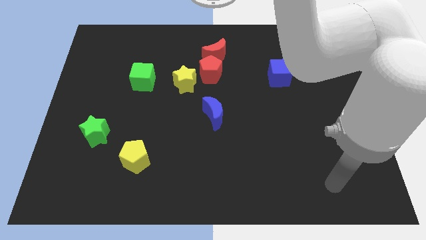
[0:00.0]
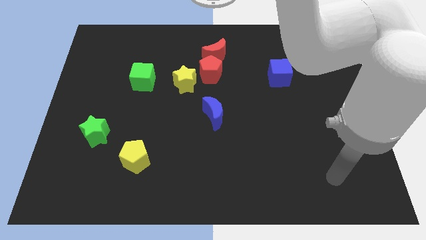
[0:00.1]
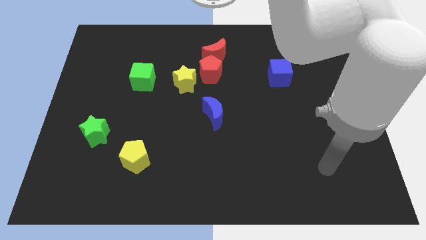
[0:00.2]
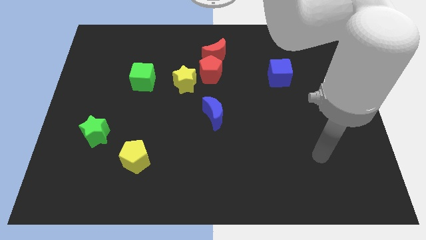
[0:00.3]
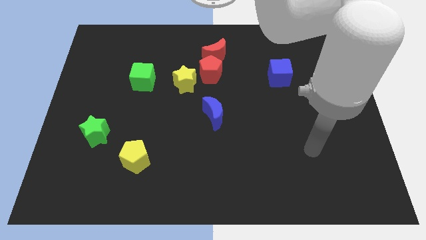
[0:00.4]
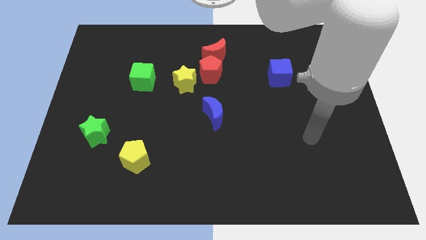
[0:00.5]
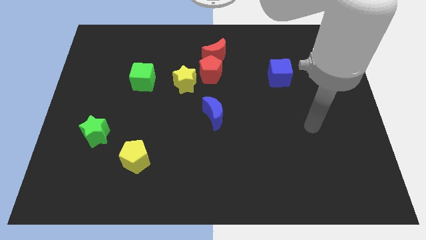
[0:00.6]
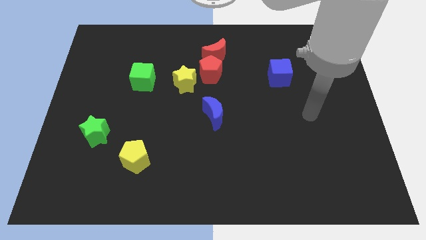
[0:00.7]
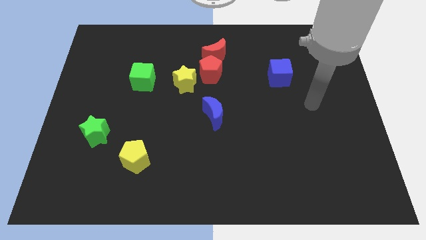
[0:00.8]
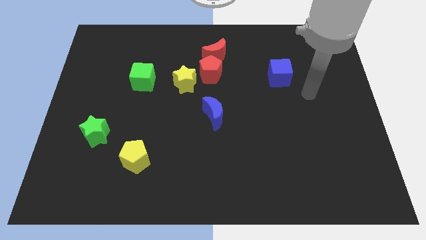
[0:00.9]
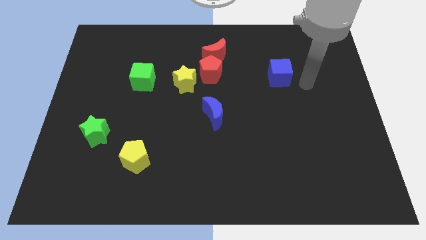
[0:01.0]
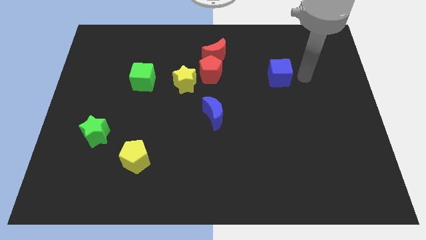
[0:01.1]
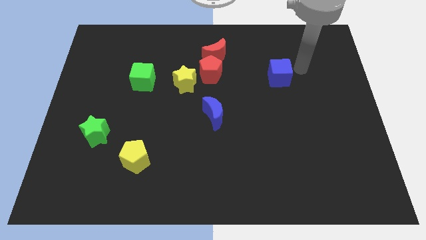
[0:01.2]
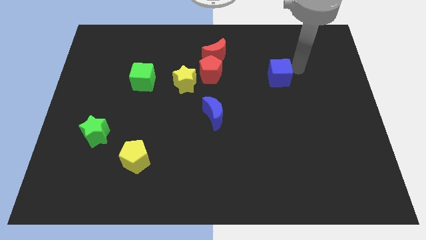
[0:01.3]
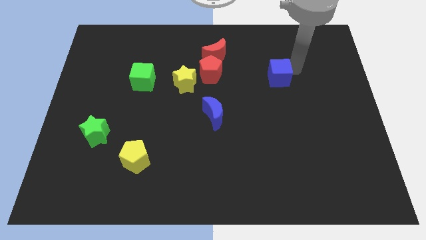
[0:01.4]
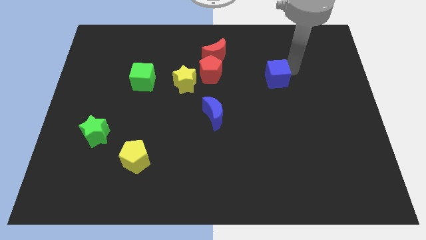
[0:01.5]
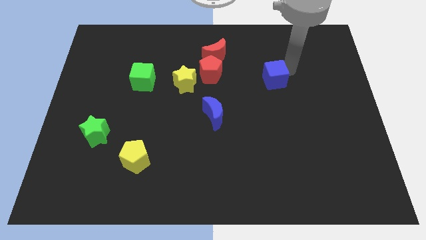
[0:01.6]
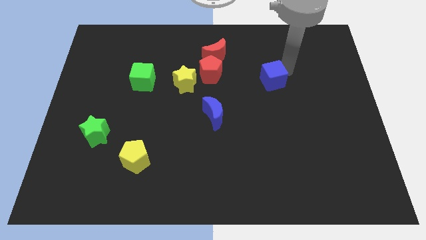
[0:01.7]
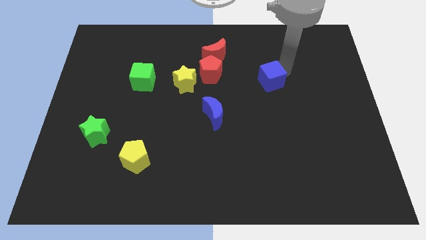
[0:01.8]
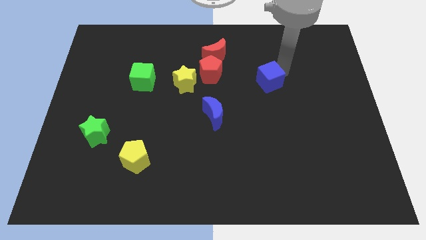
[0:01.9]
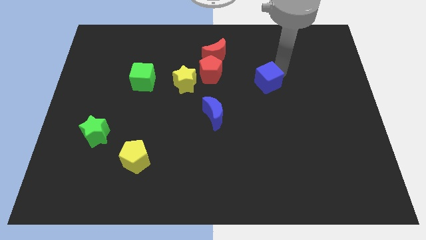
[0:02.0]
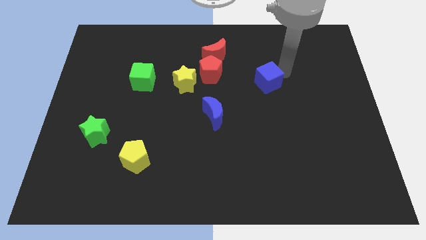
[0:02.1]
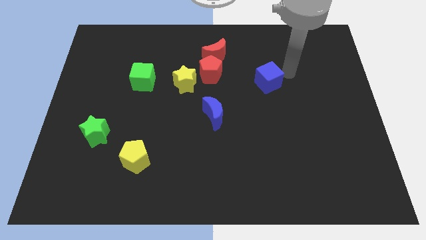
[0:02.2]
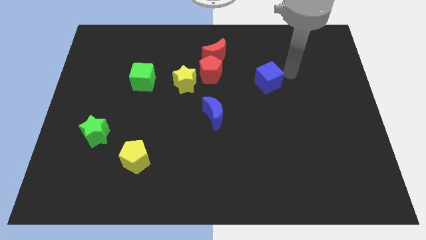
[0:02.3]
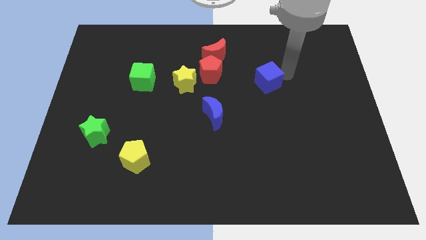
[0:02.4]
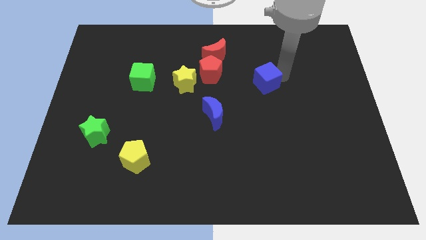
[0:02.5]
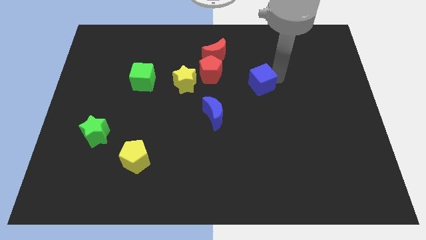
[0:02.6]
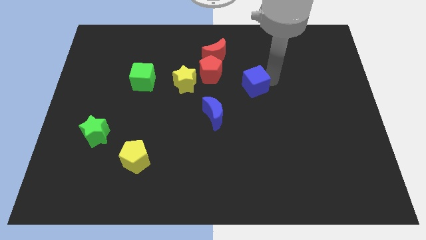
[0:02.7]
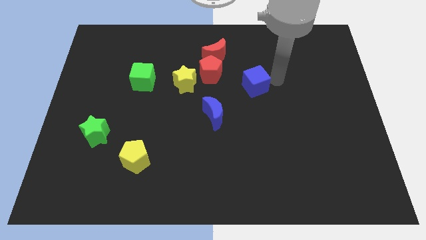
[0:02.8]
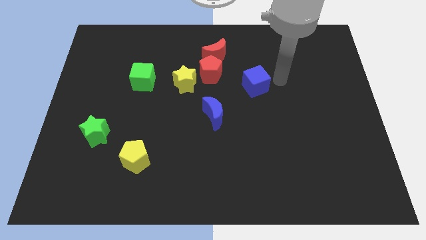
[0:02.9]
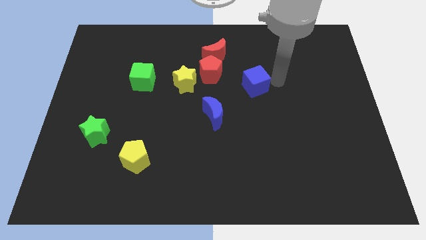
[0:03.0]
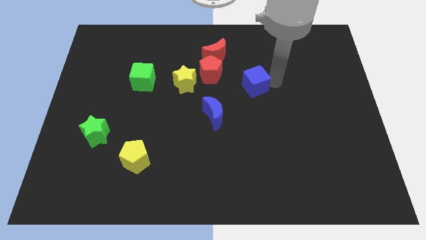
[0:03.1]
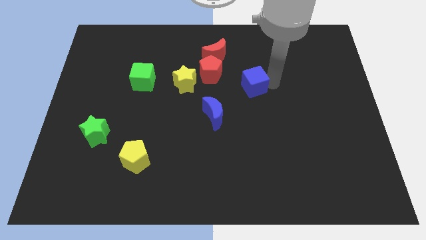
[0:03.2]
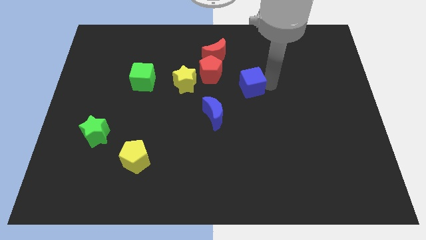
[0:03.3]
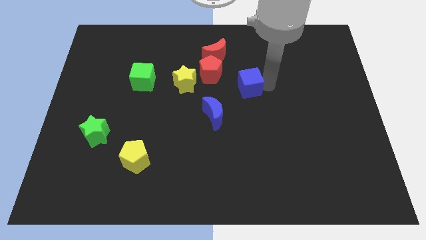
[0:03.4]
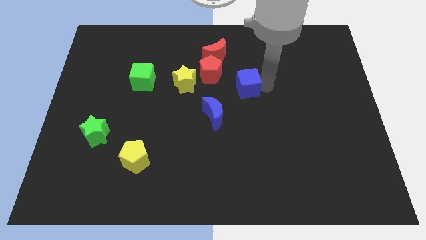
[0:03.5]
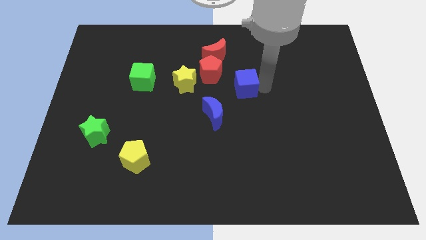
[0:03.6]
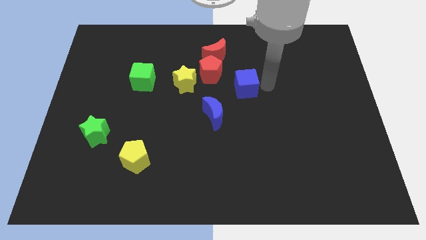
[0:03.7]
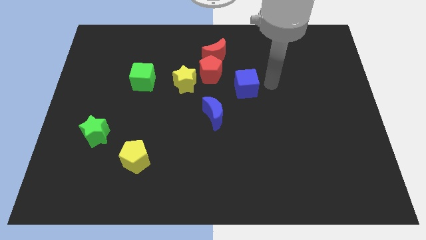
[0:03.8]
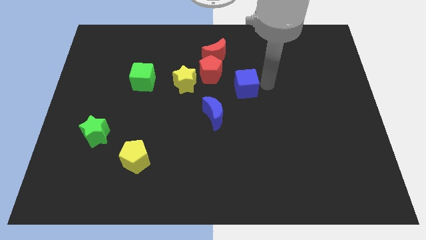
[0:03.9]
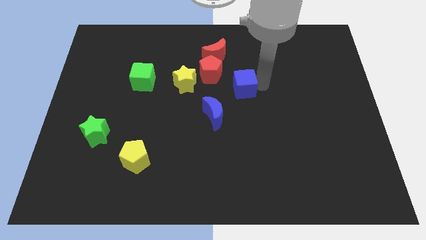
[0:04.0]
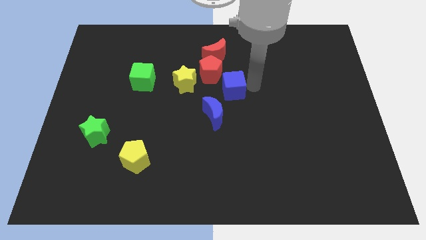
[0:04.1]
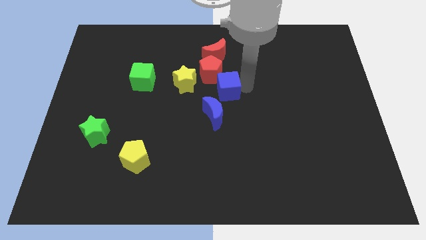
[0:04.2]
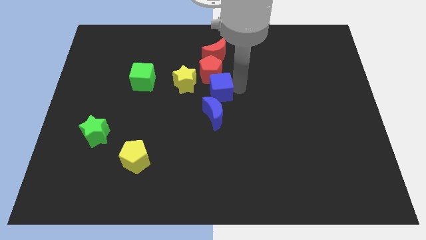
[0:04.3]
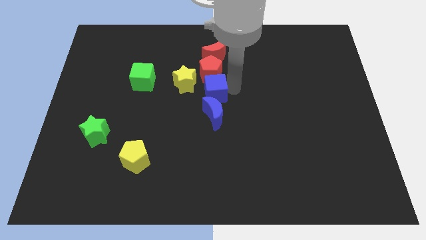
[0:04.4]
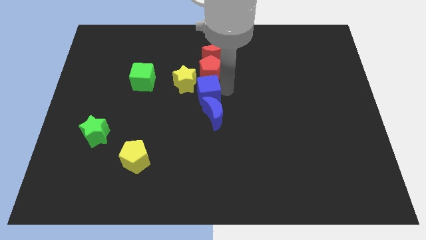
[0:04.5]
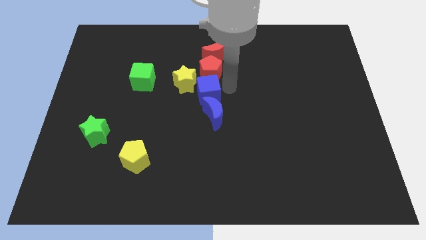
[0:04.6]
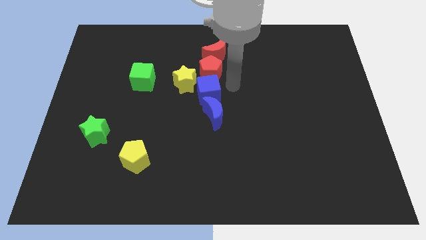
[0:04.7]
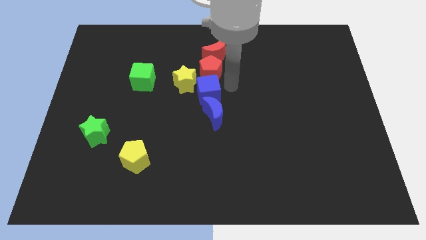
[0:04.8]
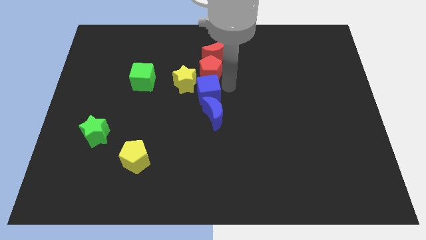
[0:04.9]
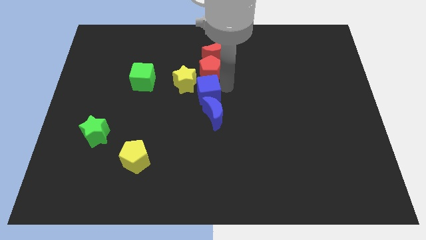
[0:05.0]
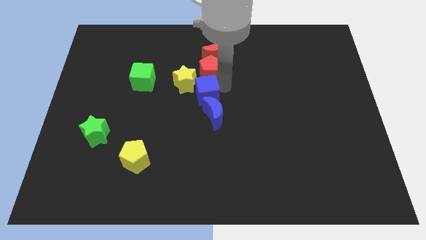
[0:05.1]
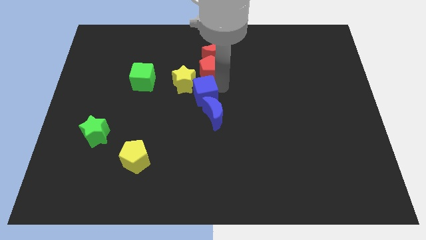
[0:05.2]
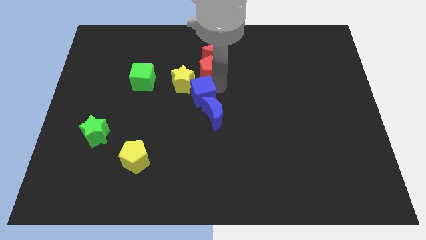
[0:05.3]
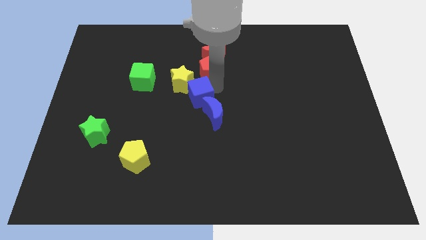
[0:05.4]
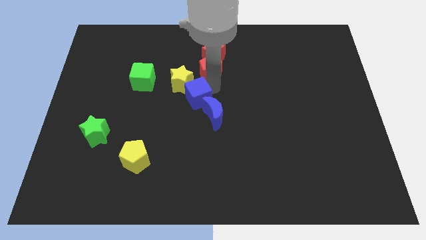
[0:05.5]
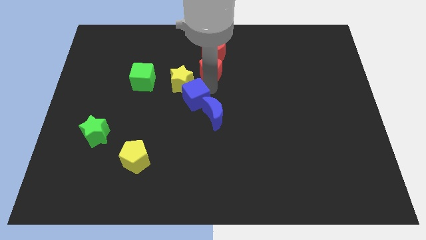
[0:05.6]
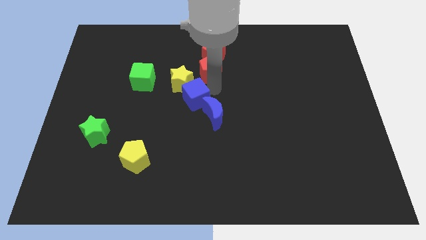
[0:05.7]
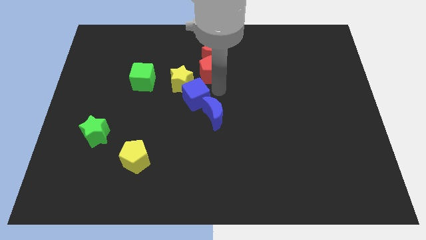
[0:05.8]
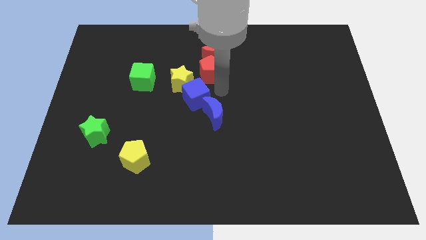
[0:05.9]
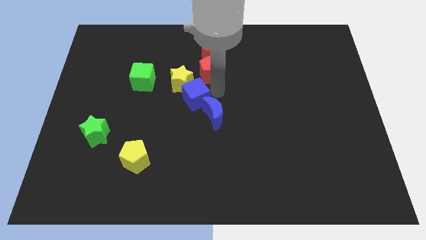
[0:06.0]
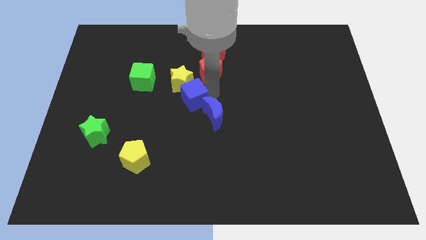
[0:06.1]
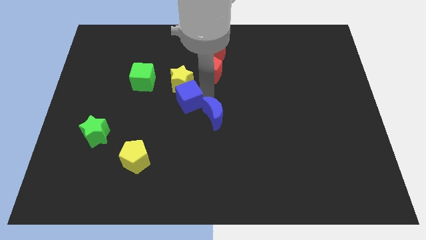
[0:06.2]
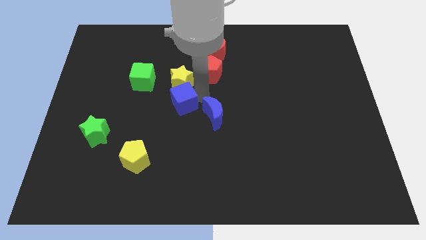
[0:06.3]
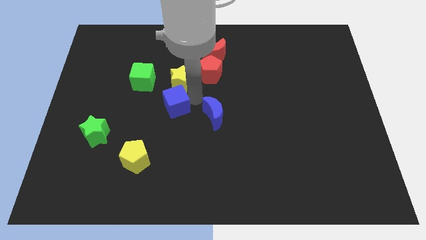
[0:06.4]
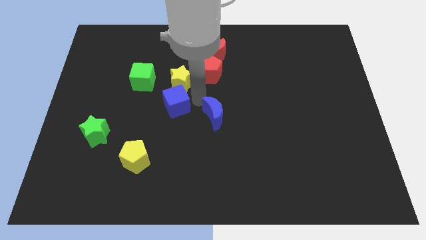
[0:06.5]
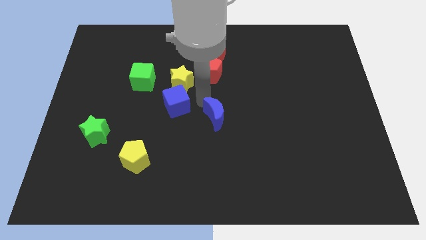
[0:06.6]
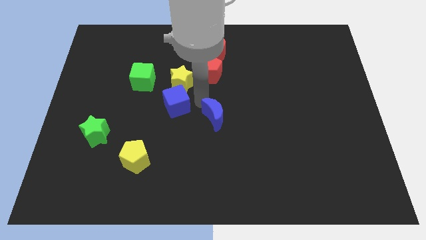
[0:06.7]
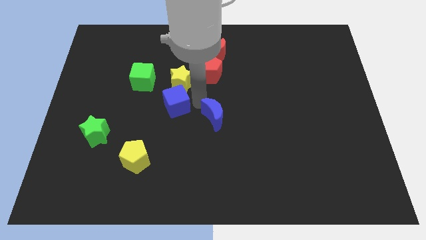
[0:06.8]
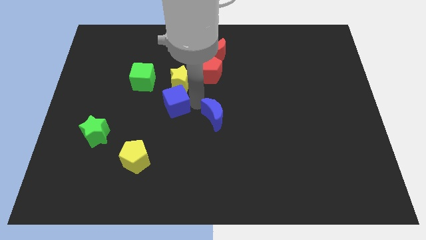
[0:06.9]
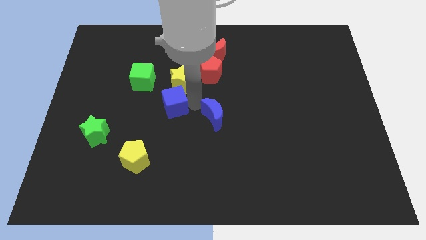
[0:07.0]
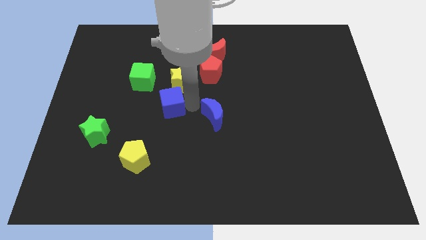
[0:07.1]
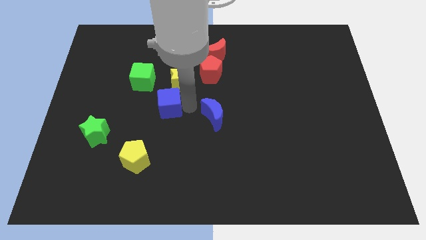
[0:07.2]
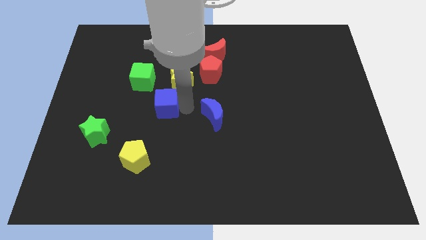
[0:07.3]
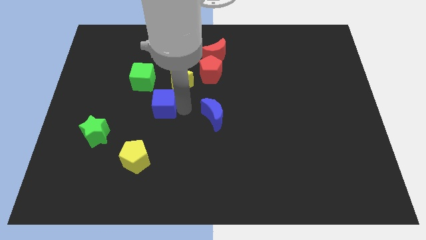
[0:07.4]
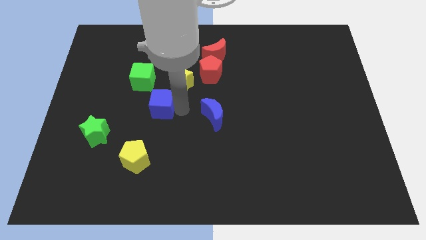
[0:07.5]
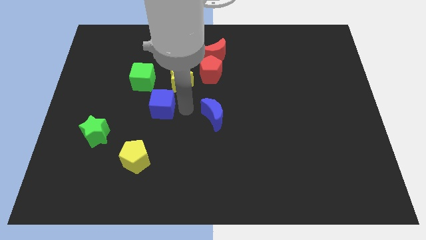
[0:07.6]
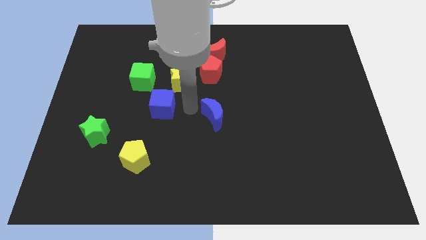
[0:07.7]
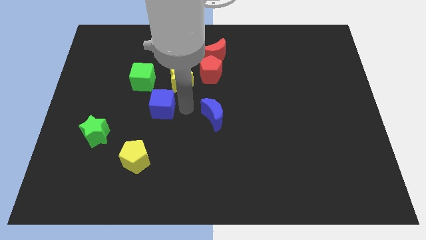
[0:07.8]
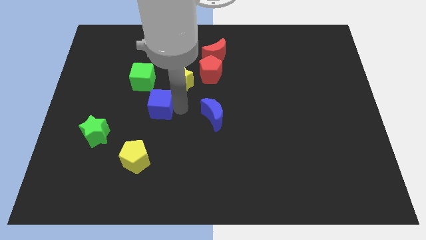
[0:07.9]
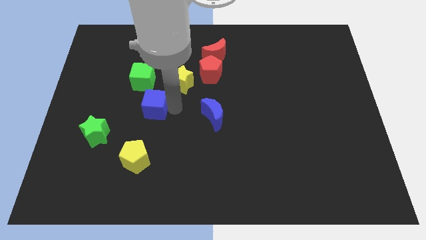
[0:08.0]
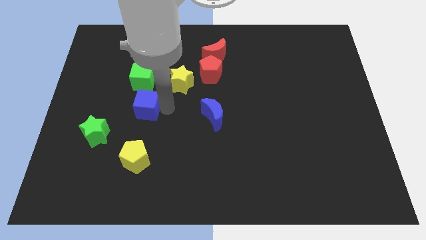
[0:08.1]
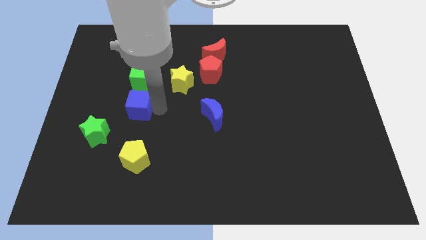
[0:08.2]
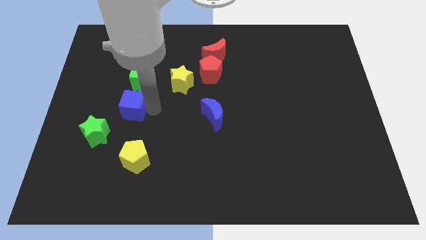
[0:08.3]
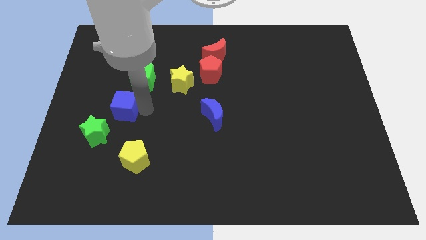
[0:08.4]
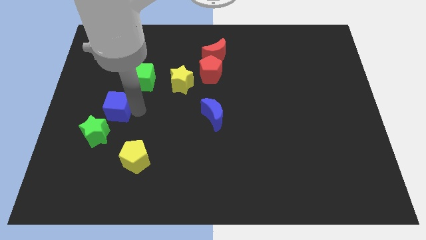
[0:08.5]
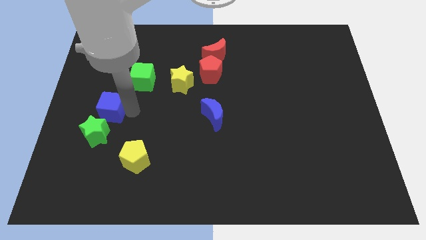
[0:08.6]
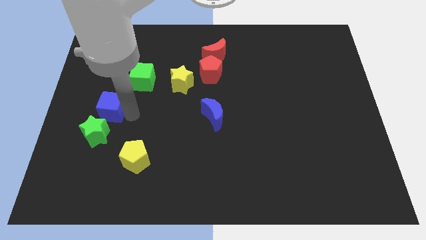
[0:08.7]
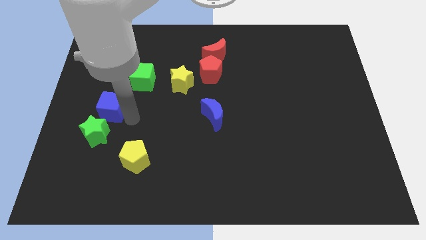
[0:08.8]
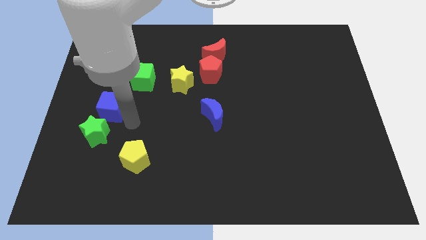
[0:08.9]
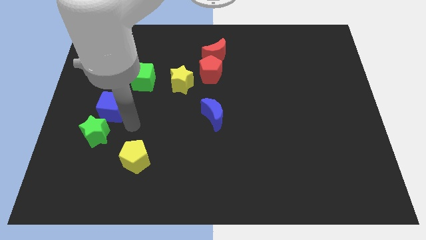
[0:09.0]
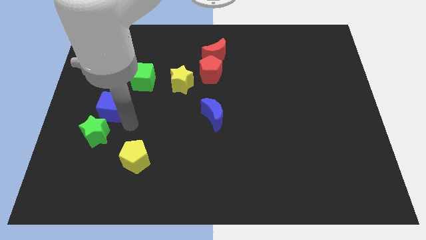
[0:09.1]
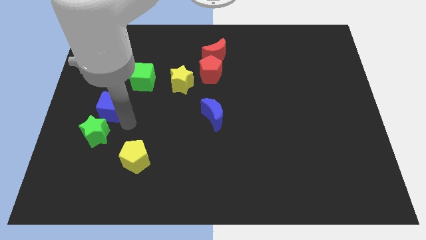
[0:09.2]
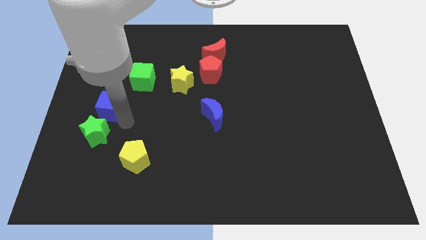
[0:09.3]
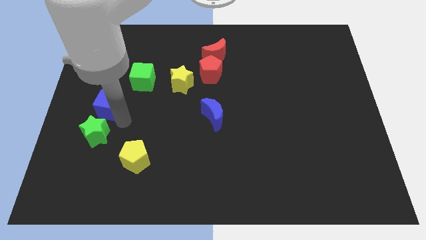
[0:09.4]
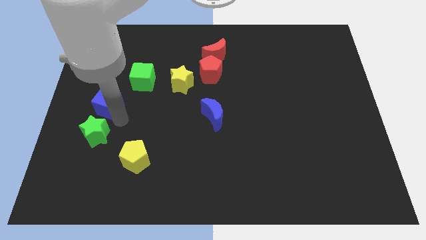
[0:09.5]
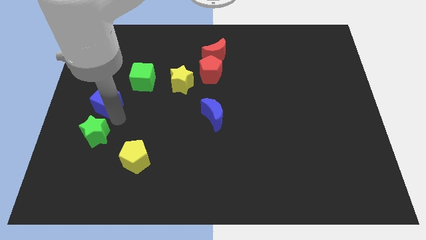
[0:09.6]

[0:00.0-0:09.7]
push the blue cube to the left side of the board
